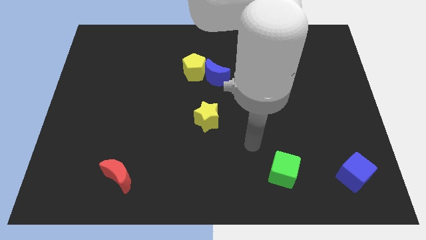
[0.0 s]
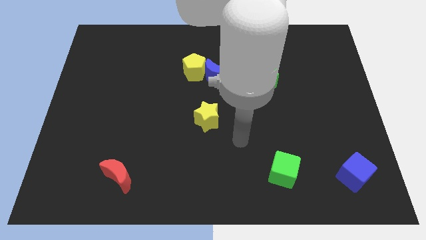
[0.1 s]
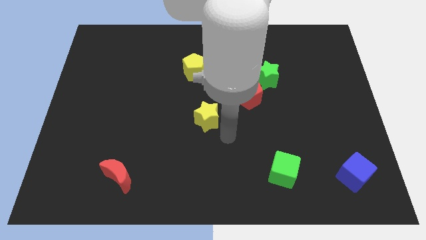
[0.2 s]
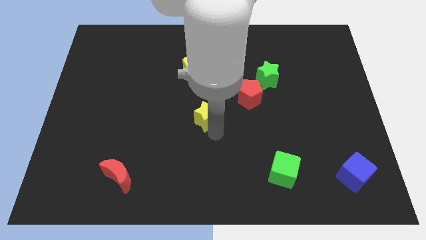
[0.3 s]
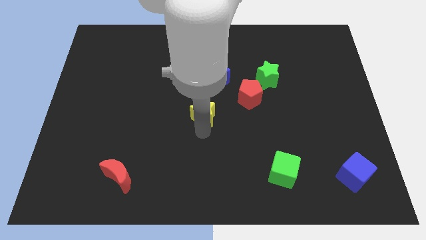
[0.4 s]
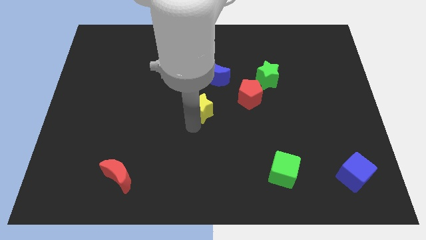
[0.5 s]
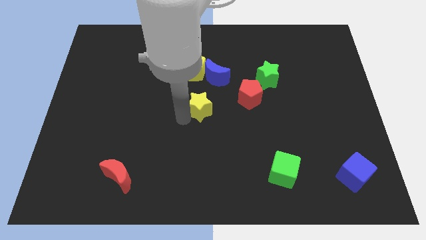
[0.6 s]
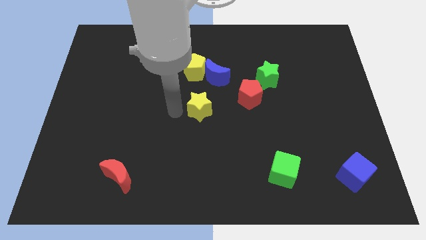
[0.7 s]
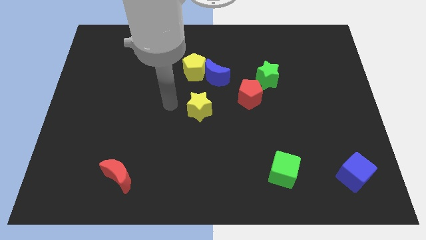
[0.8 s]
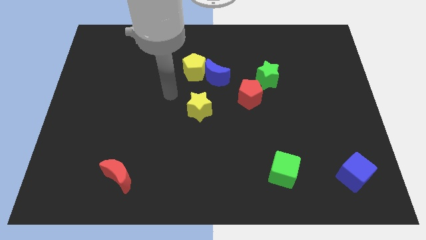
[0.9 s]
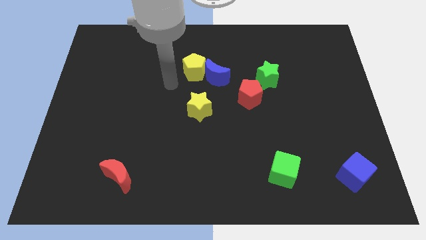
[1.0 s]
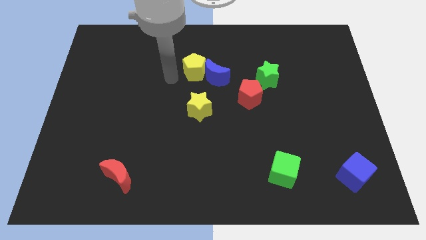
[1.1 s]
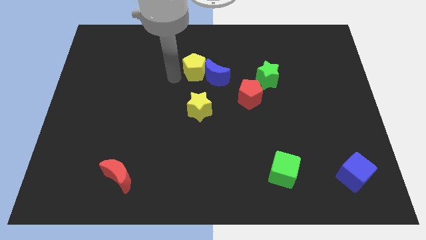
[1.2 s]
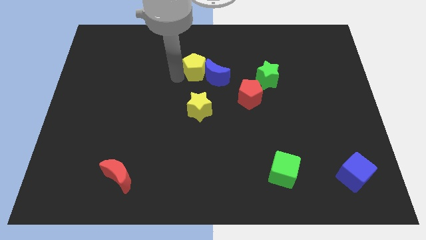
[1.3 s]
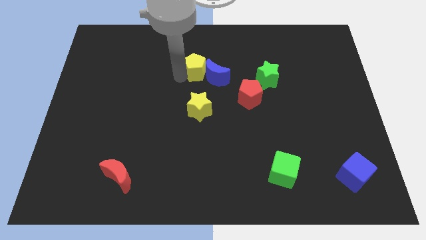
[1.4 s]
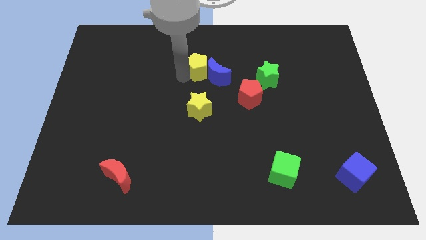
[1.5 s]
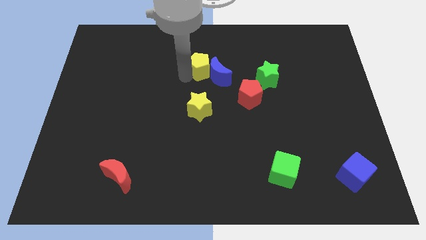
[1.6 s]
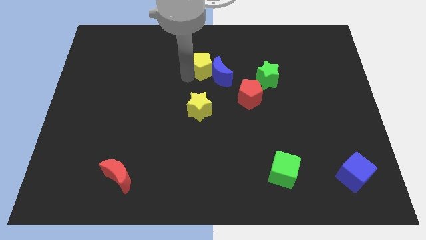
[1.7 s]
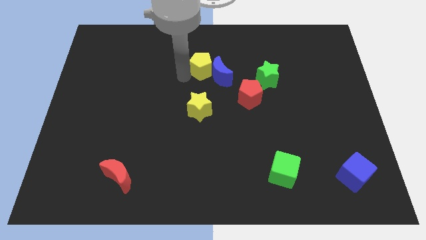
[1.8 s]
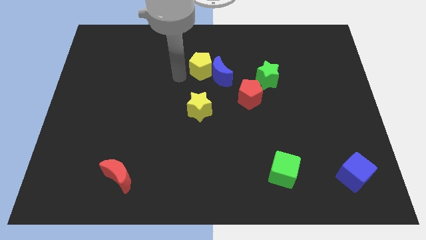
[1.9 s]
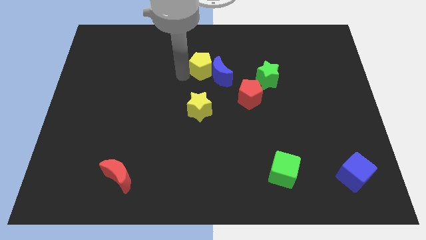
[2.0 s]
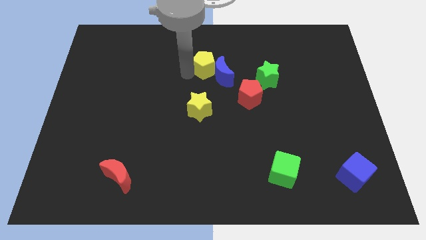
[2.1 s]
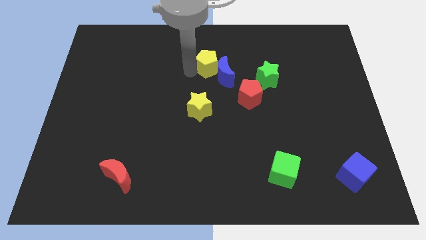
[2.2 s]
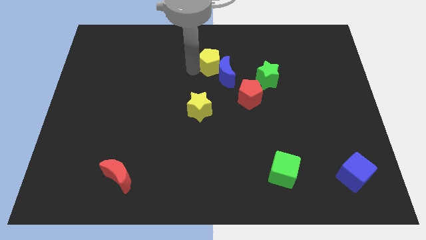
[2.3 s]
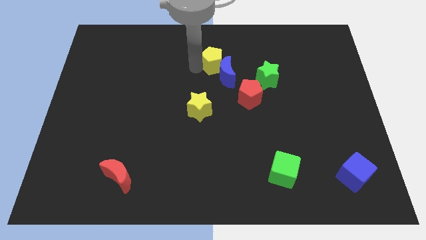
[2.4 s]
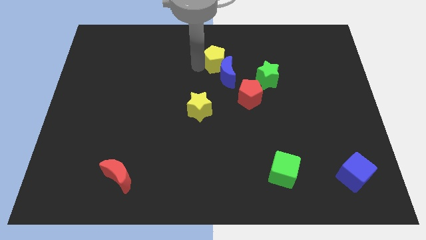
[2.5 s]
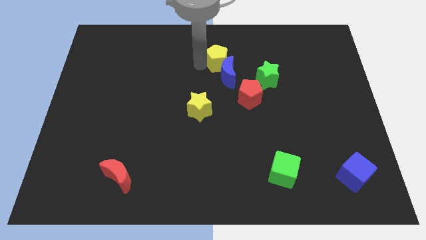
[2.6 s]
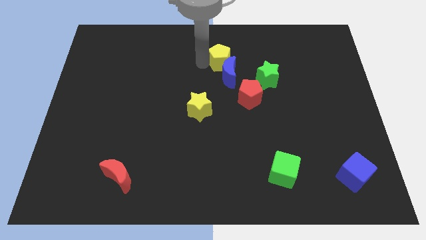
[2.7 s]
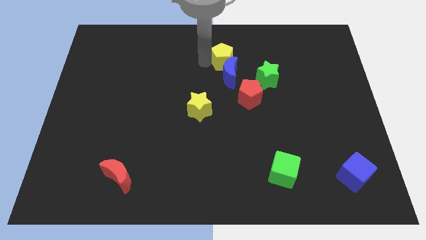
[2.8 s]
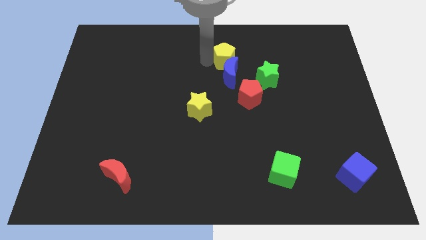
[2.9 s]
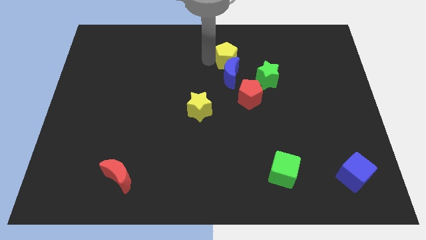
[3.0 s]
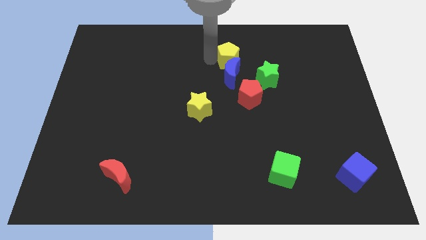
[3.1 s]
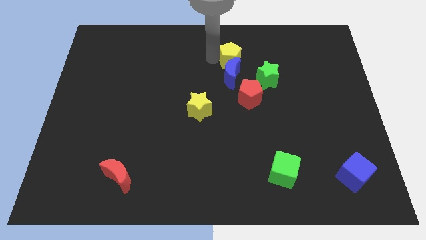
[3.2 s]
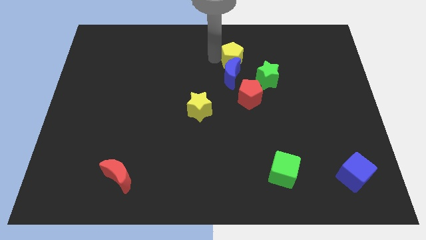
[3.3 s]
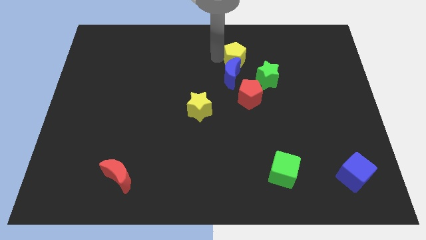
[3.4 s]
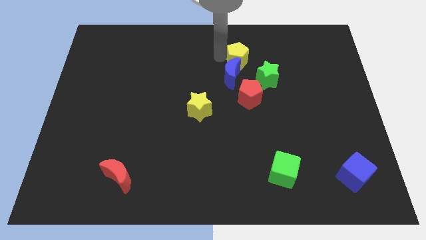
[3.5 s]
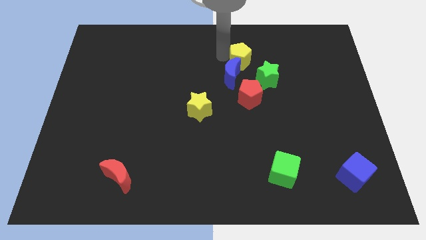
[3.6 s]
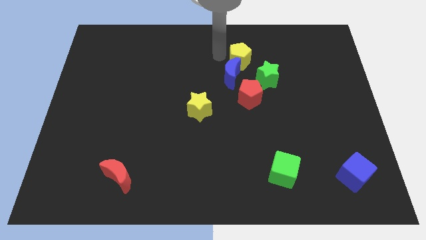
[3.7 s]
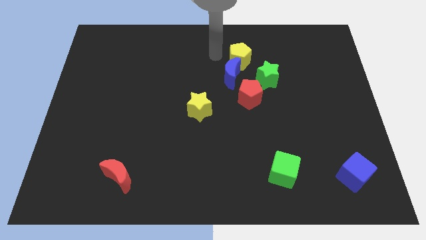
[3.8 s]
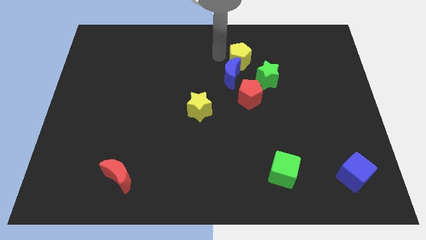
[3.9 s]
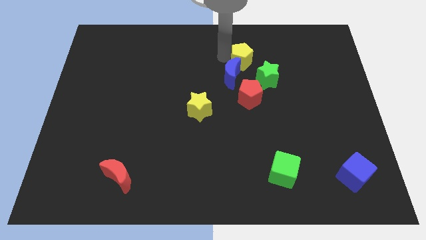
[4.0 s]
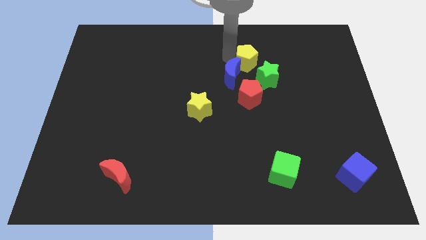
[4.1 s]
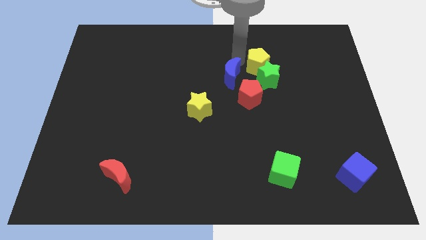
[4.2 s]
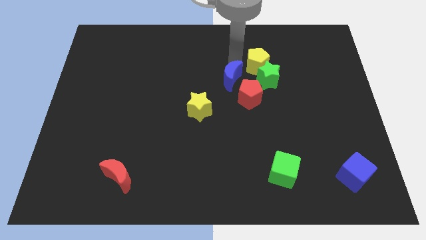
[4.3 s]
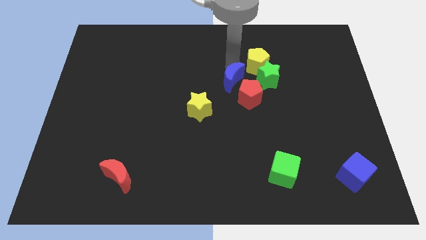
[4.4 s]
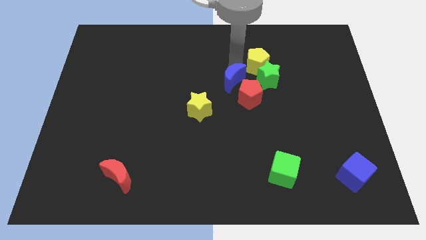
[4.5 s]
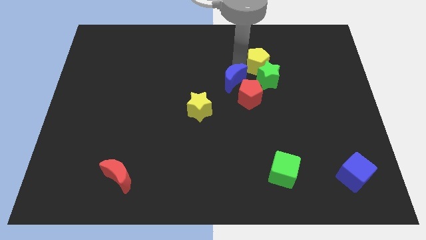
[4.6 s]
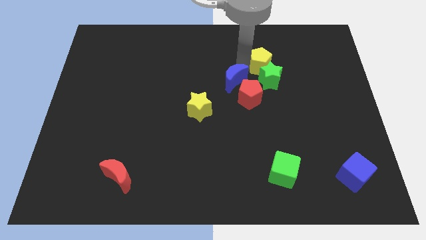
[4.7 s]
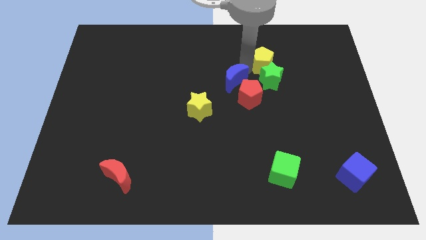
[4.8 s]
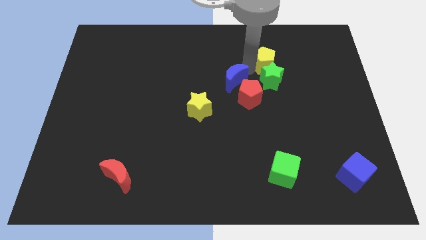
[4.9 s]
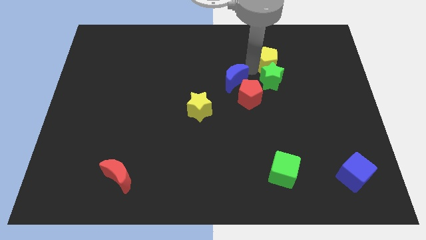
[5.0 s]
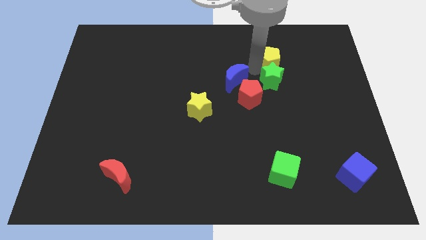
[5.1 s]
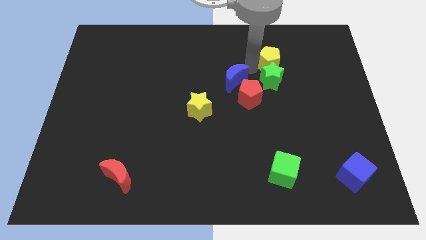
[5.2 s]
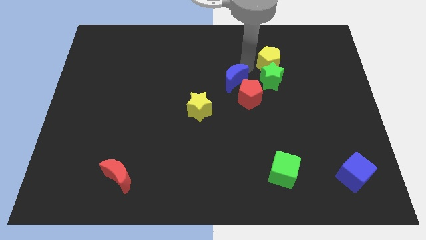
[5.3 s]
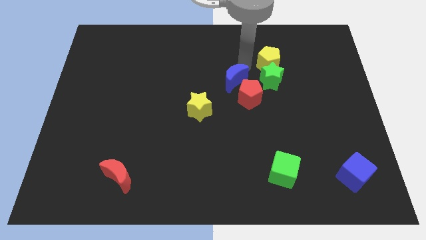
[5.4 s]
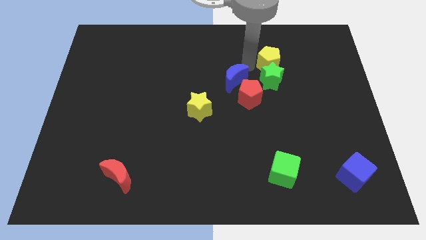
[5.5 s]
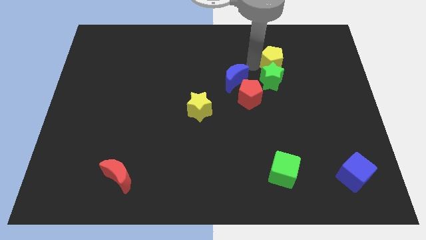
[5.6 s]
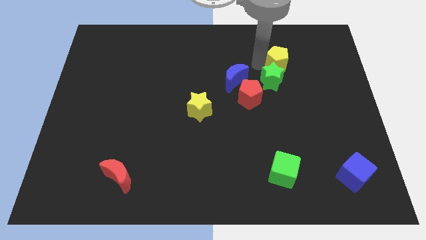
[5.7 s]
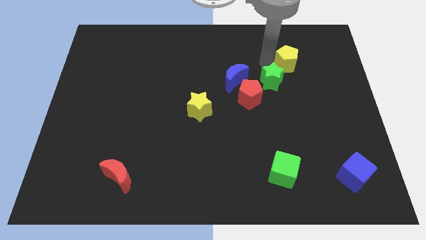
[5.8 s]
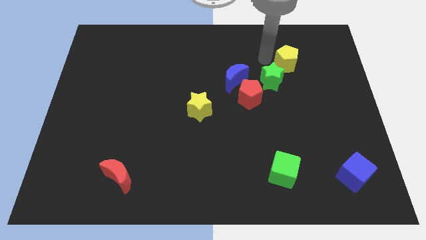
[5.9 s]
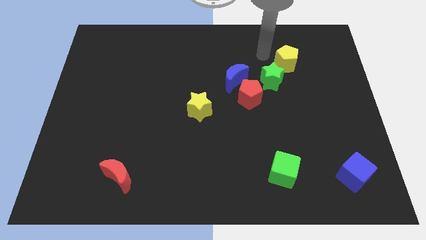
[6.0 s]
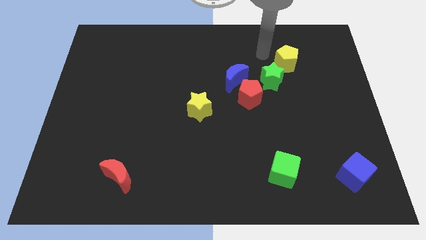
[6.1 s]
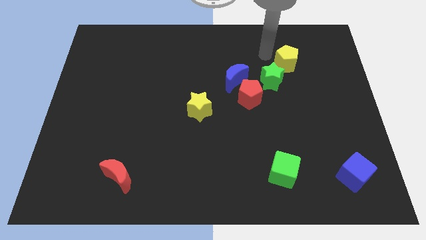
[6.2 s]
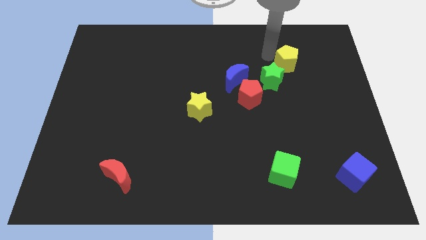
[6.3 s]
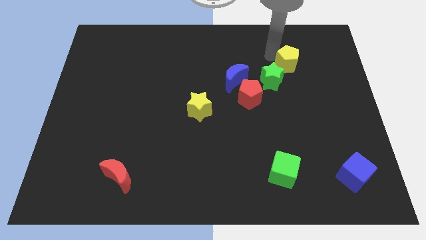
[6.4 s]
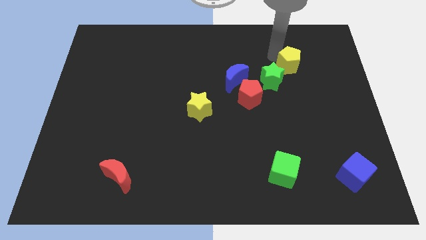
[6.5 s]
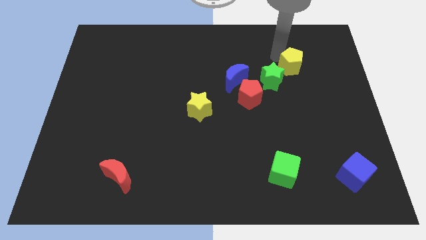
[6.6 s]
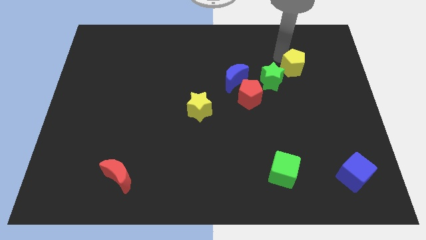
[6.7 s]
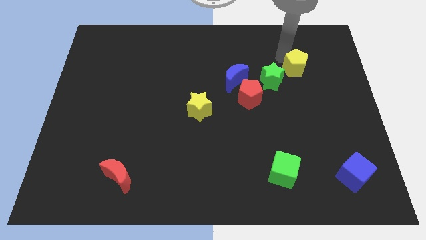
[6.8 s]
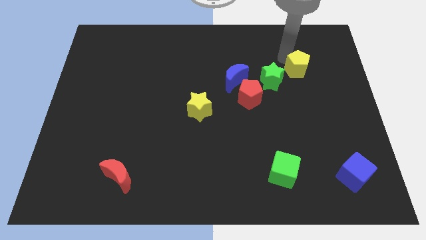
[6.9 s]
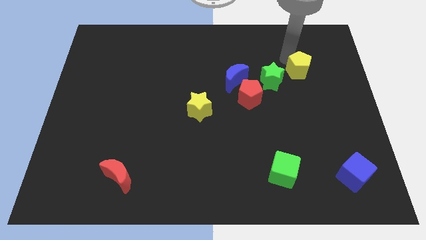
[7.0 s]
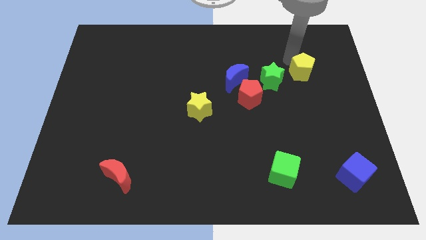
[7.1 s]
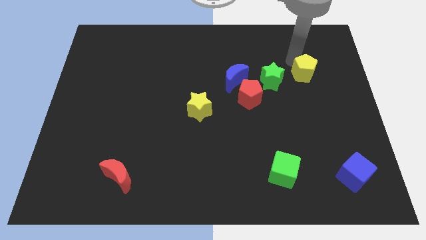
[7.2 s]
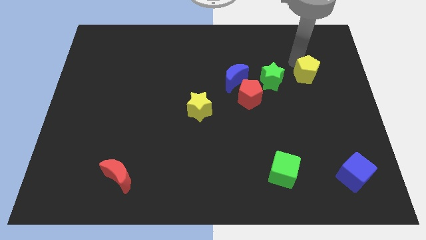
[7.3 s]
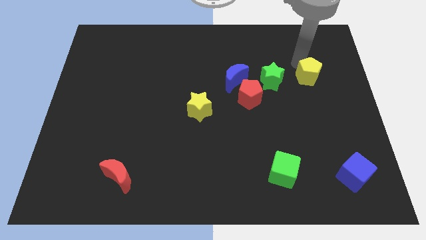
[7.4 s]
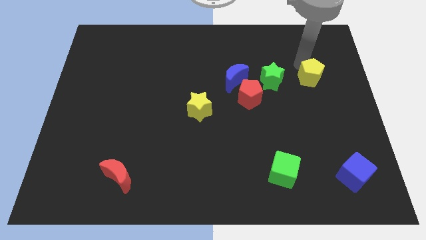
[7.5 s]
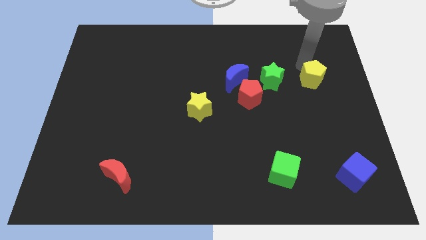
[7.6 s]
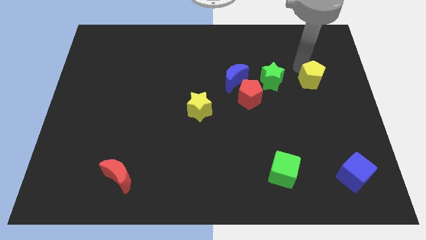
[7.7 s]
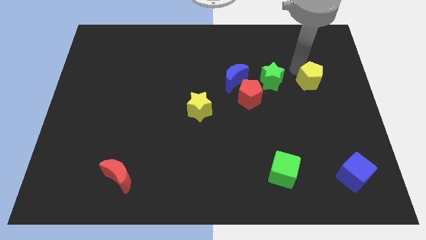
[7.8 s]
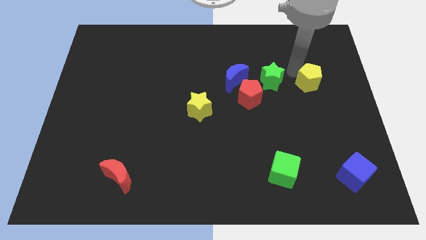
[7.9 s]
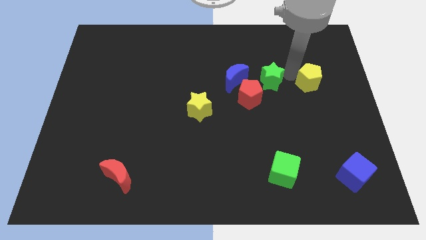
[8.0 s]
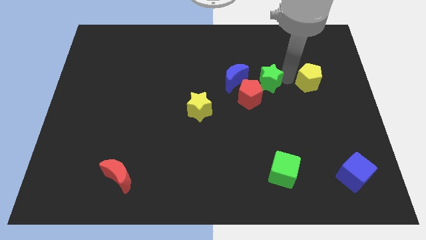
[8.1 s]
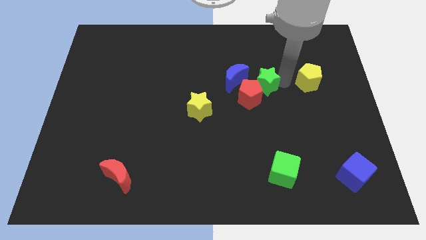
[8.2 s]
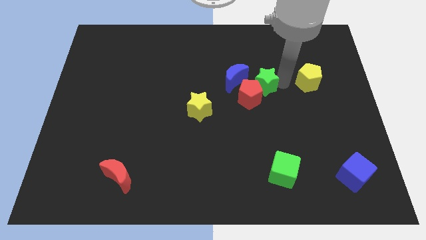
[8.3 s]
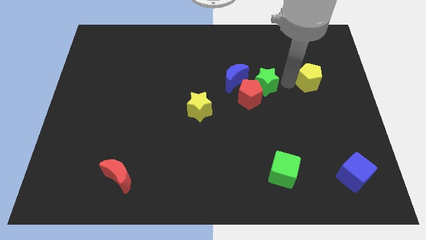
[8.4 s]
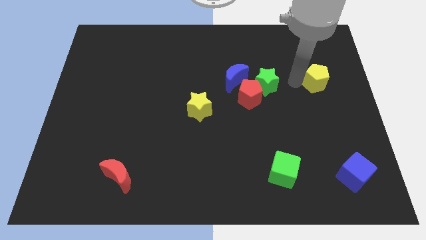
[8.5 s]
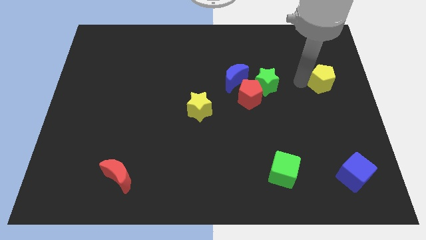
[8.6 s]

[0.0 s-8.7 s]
push the yellow pentagon to the right side
